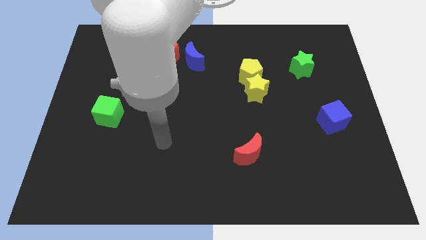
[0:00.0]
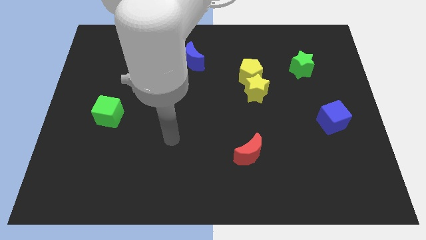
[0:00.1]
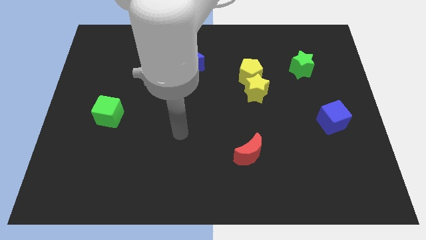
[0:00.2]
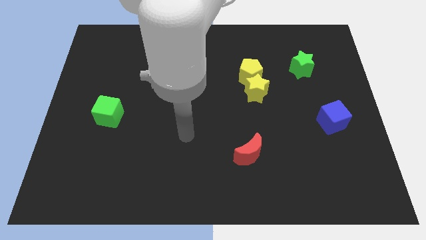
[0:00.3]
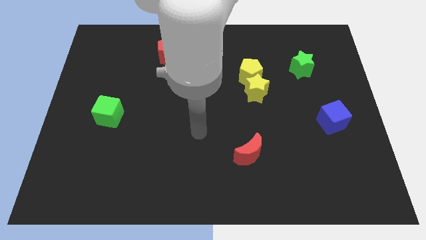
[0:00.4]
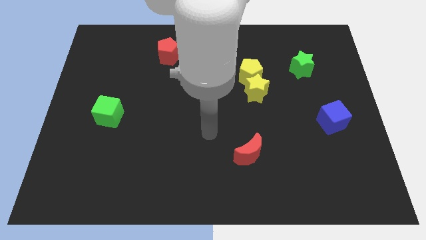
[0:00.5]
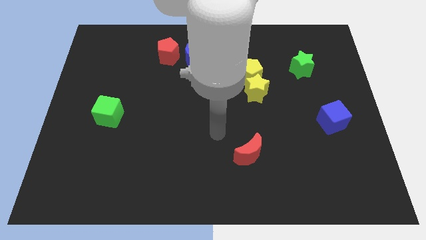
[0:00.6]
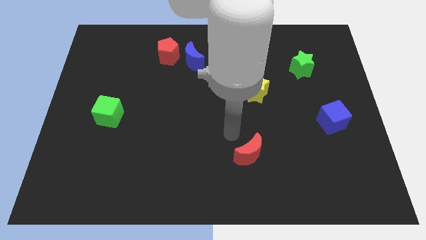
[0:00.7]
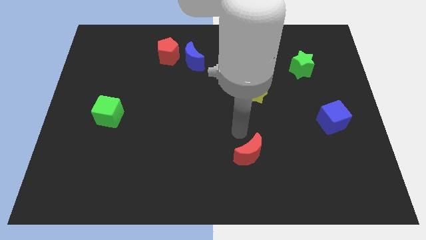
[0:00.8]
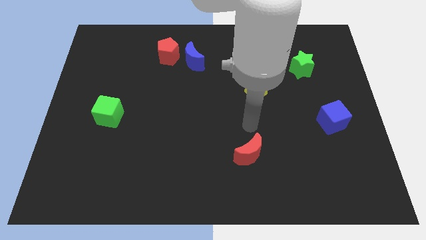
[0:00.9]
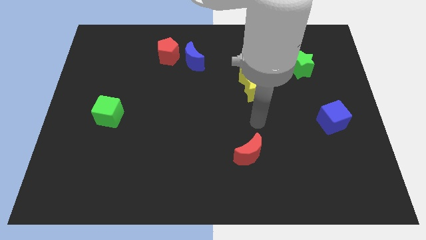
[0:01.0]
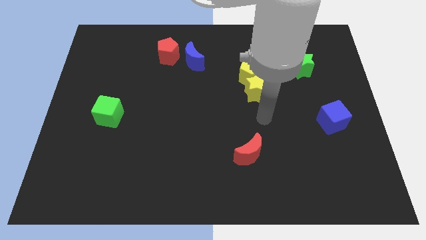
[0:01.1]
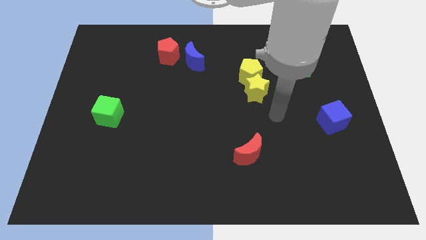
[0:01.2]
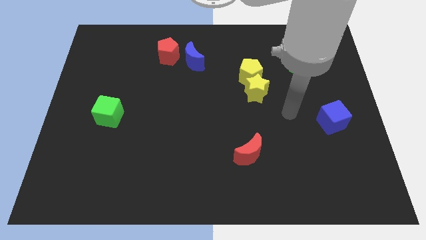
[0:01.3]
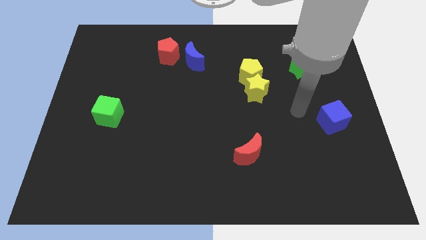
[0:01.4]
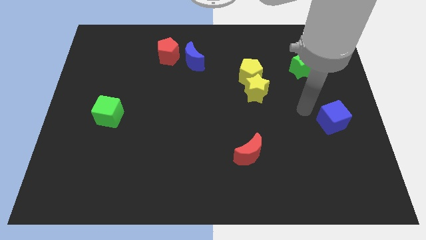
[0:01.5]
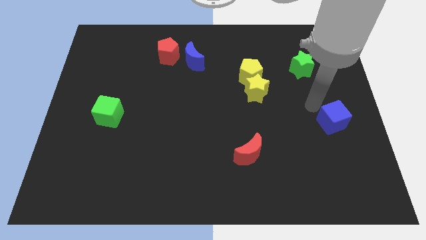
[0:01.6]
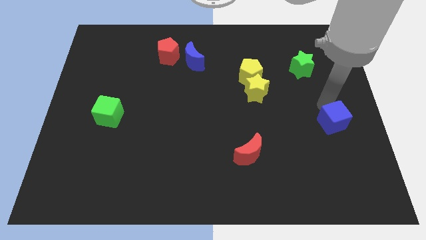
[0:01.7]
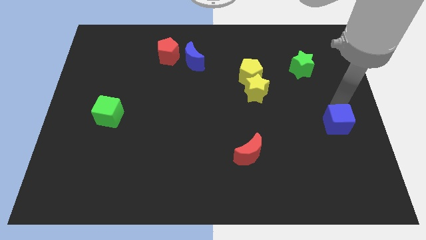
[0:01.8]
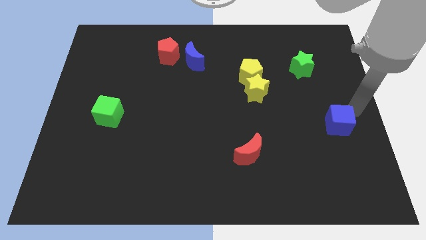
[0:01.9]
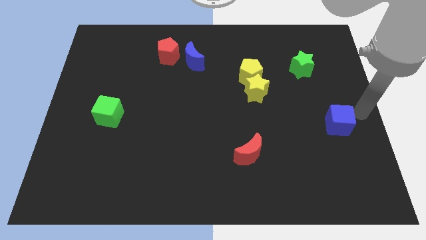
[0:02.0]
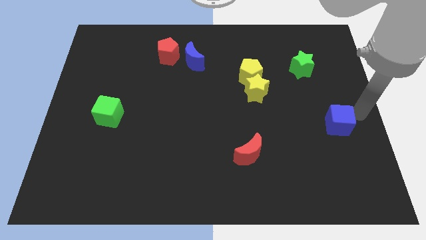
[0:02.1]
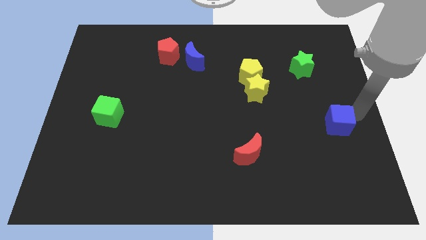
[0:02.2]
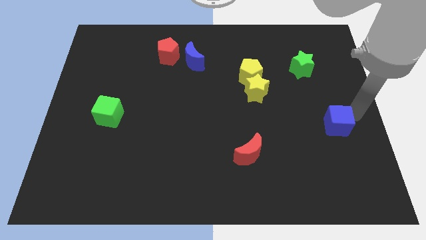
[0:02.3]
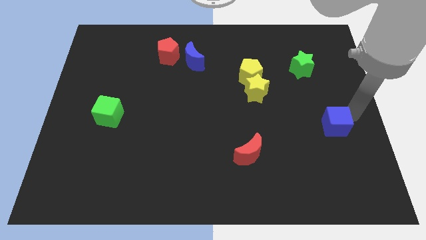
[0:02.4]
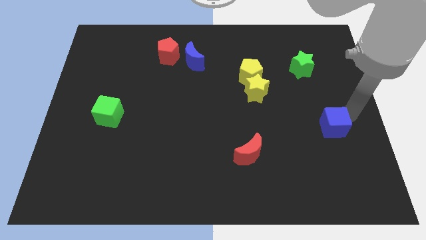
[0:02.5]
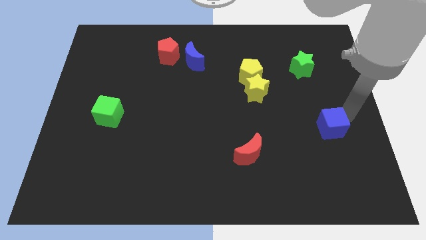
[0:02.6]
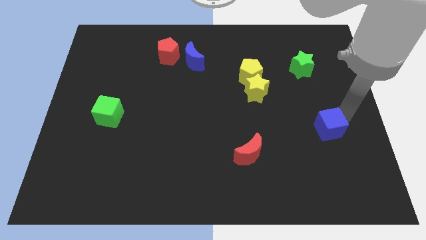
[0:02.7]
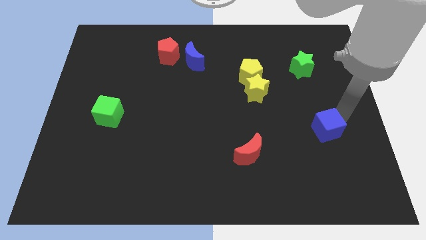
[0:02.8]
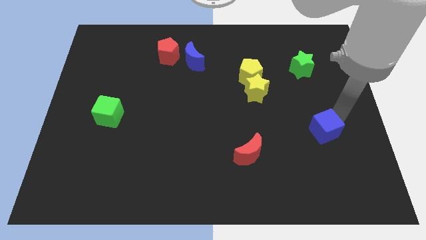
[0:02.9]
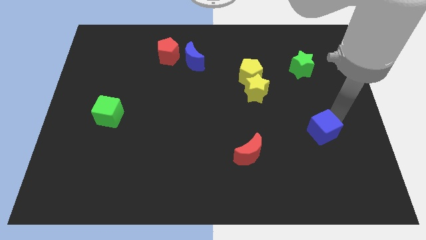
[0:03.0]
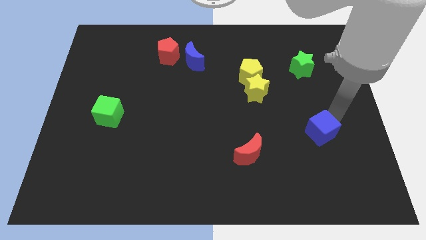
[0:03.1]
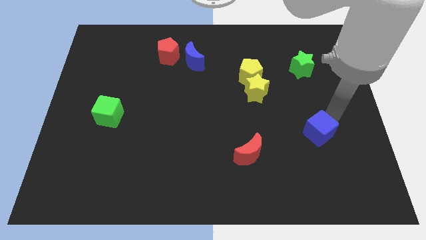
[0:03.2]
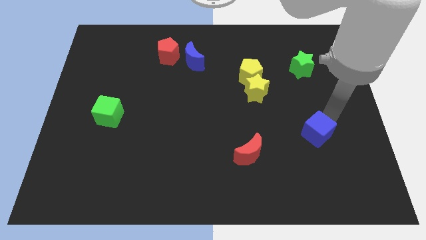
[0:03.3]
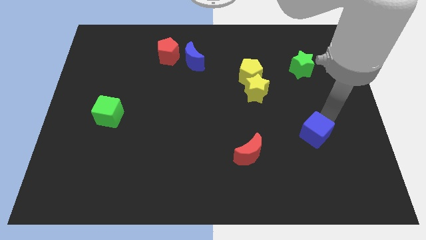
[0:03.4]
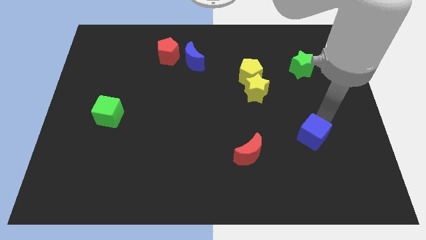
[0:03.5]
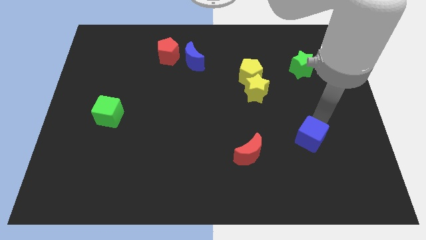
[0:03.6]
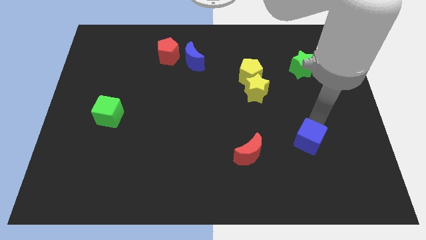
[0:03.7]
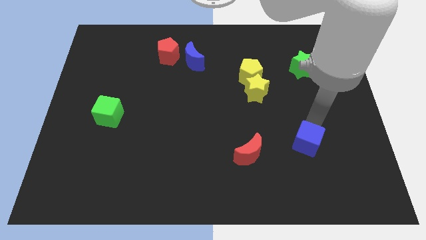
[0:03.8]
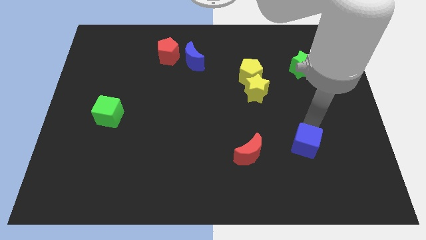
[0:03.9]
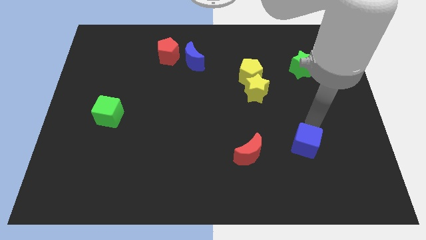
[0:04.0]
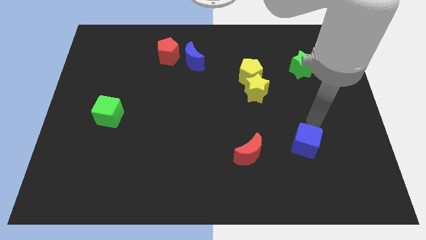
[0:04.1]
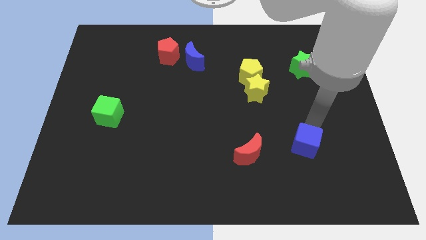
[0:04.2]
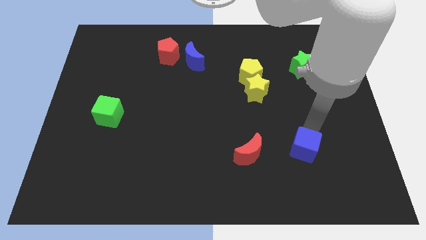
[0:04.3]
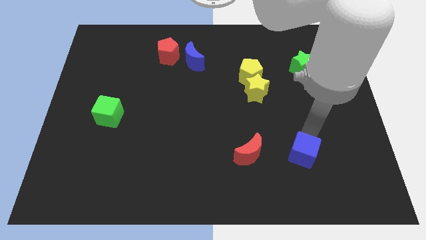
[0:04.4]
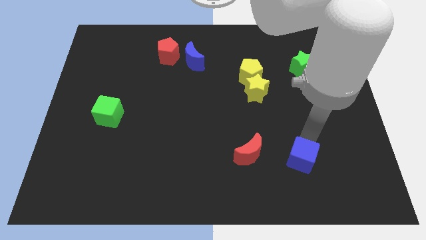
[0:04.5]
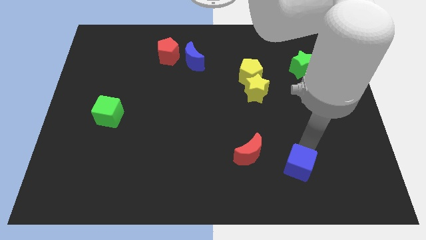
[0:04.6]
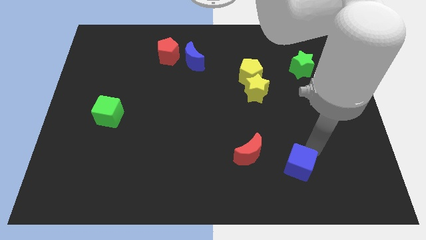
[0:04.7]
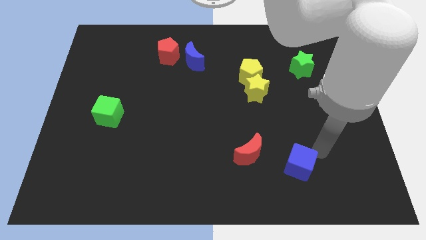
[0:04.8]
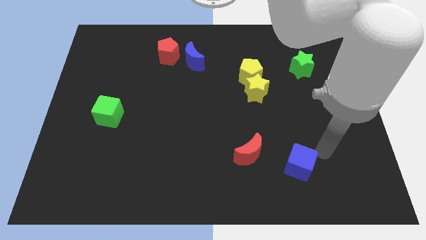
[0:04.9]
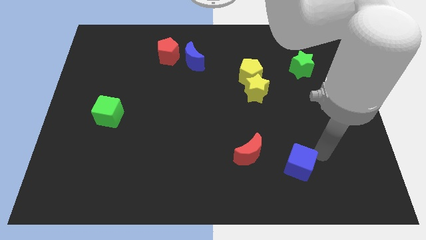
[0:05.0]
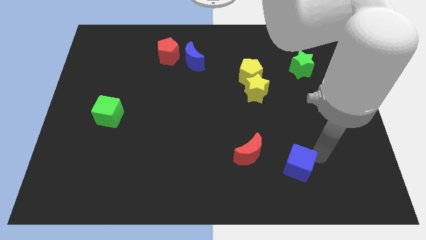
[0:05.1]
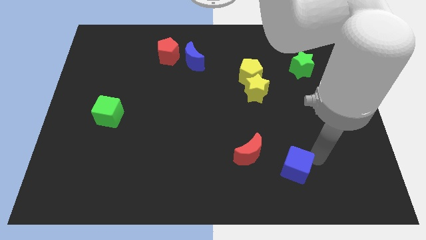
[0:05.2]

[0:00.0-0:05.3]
move the blue cube to the bottom right of the red moon

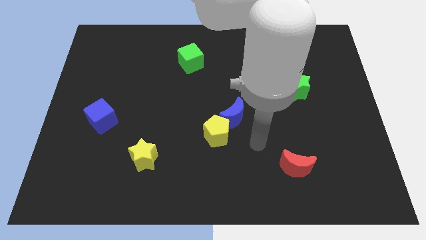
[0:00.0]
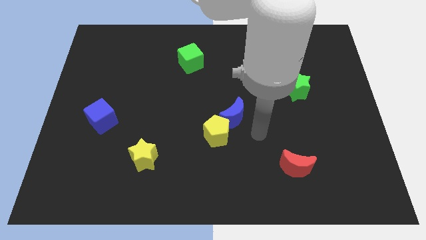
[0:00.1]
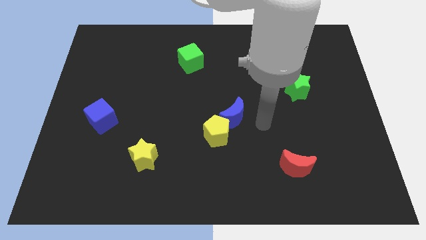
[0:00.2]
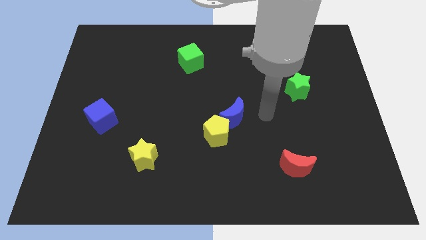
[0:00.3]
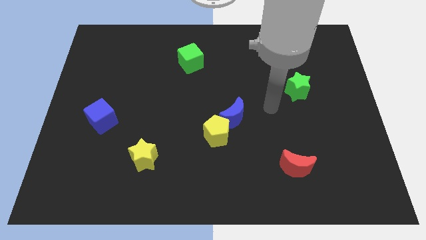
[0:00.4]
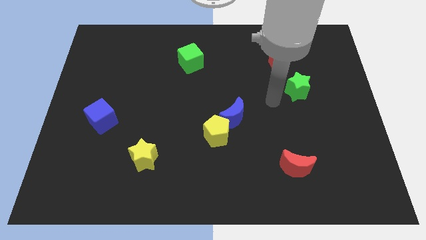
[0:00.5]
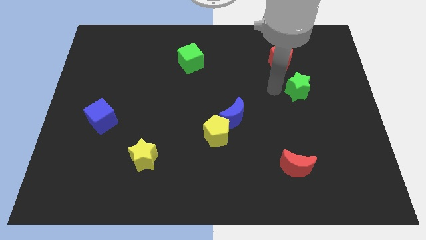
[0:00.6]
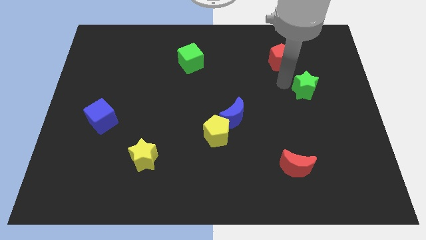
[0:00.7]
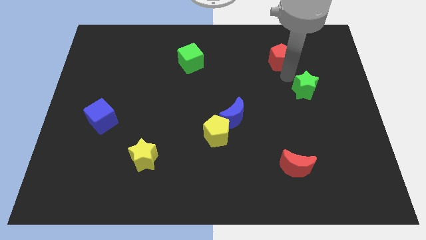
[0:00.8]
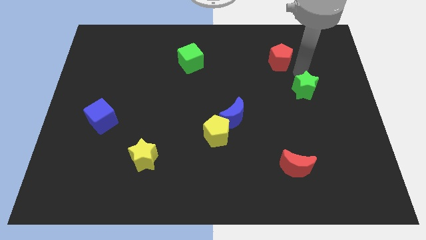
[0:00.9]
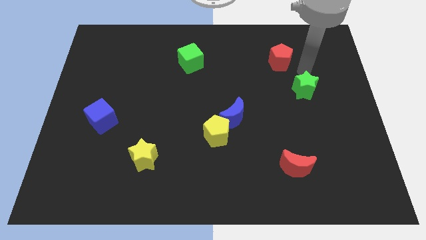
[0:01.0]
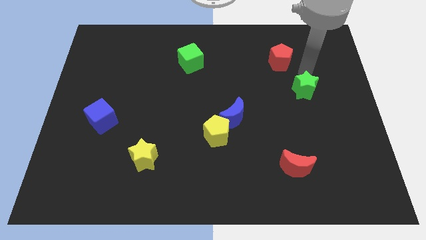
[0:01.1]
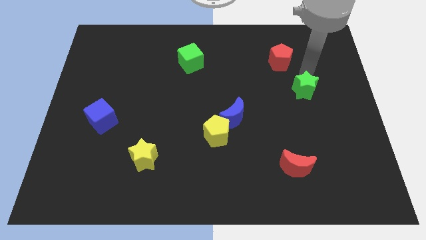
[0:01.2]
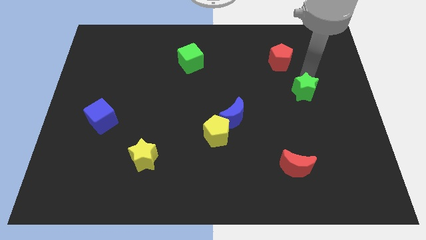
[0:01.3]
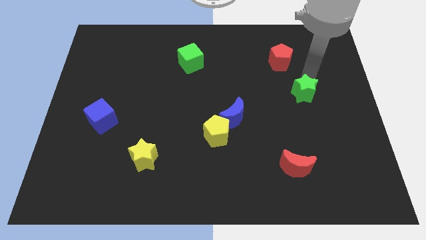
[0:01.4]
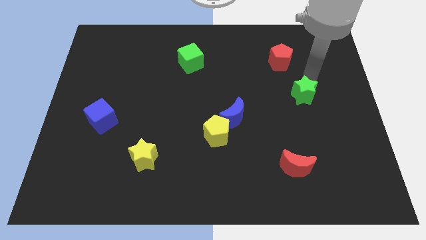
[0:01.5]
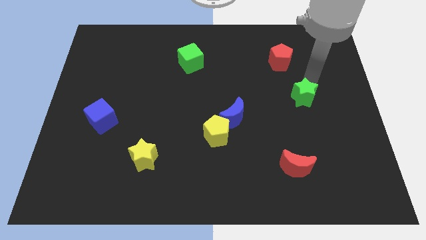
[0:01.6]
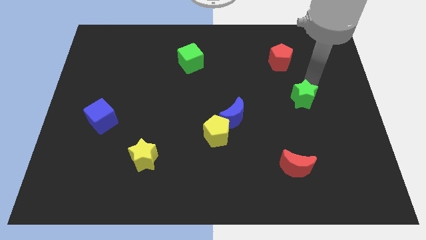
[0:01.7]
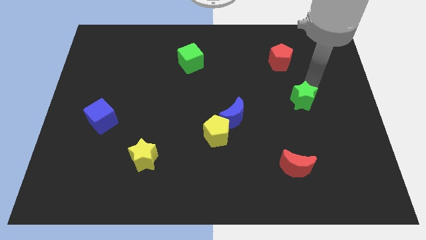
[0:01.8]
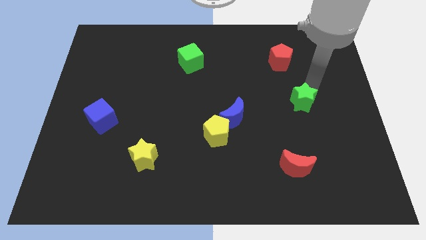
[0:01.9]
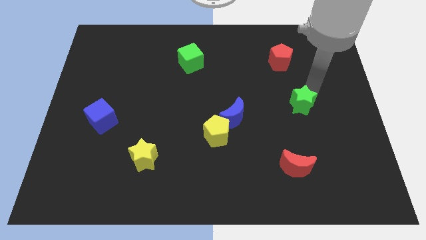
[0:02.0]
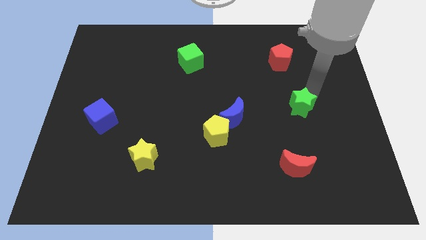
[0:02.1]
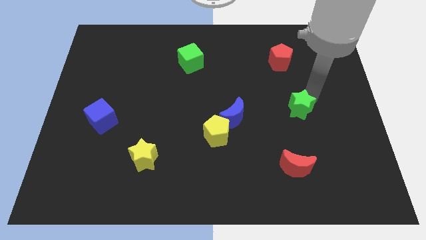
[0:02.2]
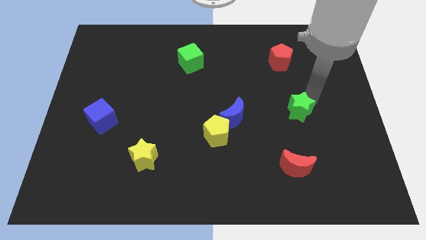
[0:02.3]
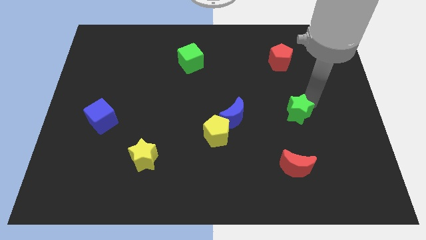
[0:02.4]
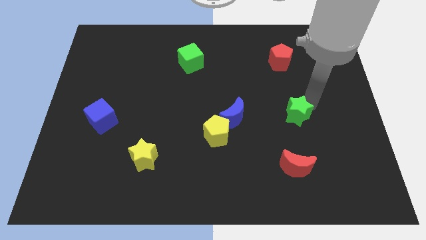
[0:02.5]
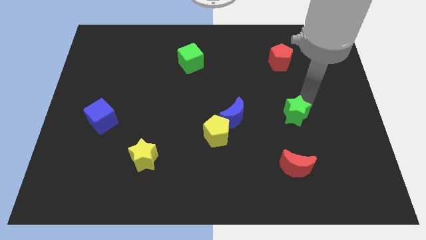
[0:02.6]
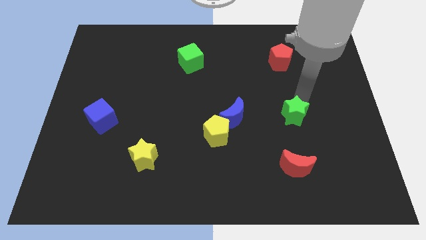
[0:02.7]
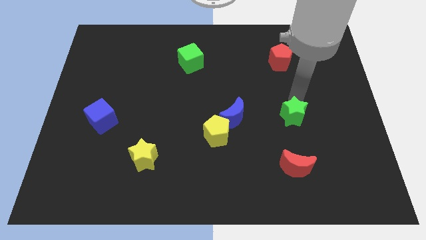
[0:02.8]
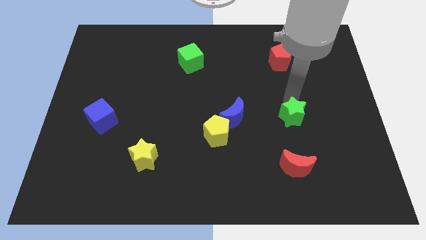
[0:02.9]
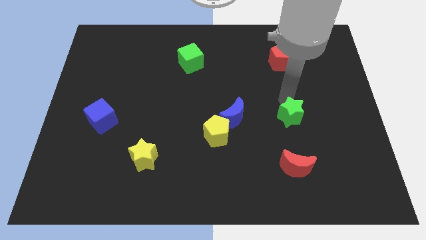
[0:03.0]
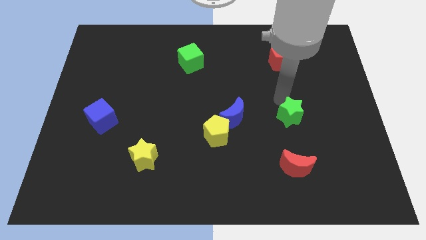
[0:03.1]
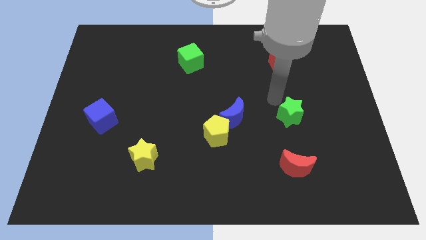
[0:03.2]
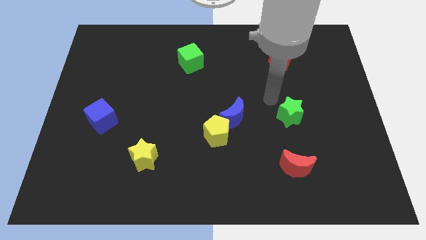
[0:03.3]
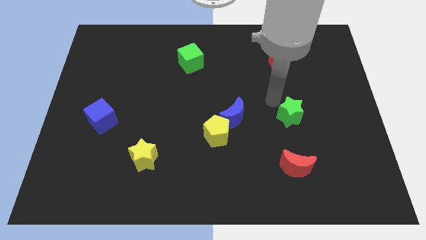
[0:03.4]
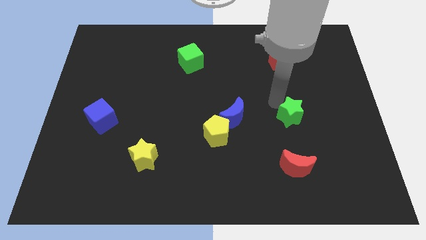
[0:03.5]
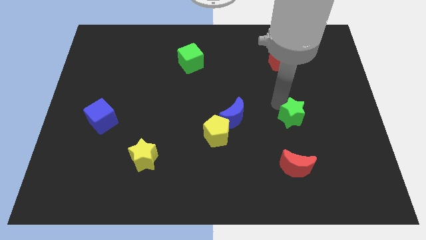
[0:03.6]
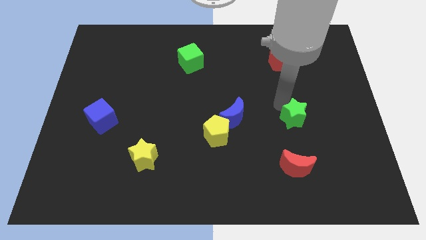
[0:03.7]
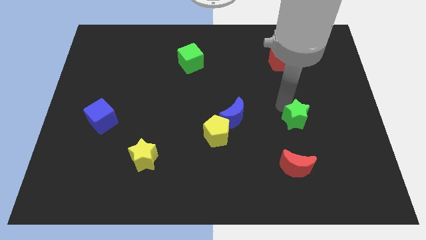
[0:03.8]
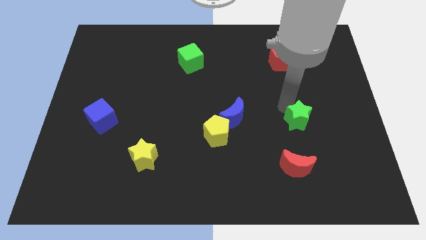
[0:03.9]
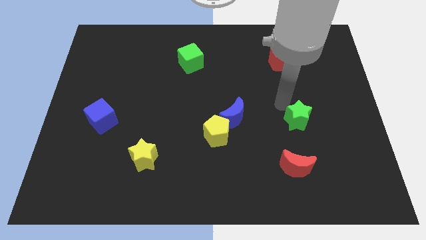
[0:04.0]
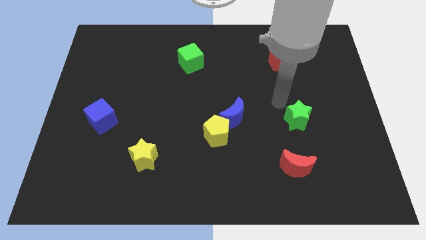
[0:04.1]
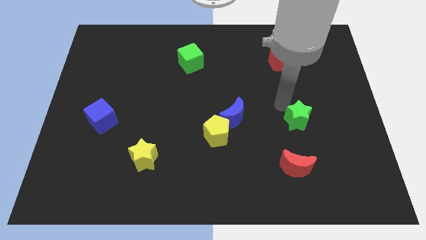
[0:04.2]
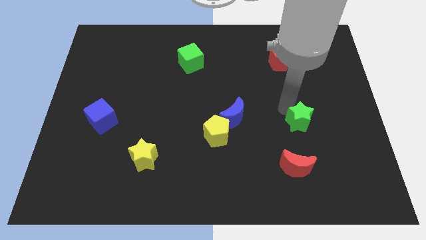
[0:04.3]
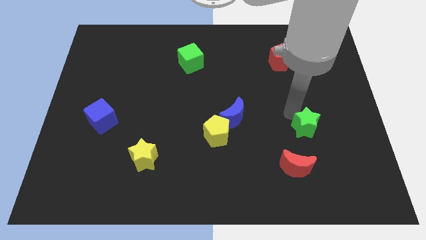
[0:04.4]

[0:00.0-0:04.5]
push the green star diagonally up and to the right of the red moon
